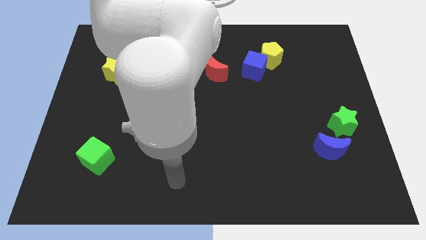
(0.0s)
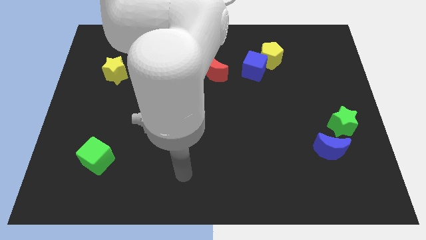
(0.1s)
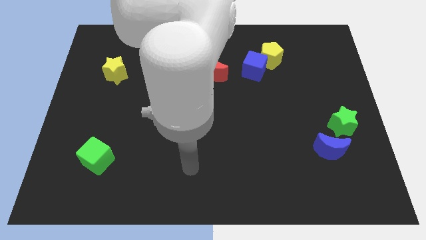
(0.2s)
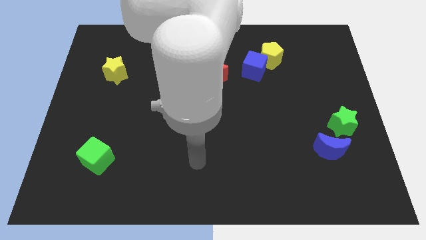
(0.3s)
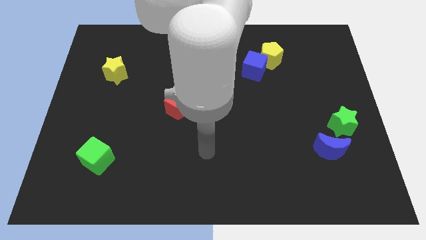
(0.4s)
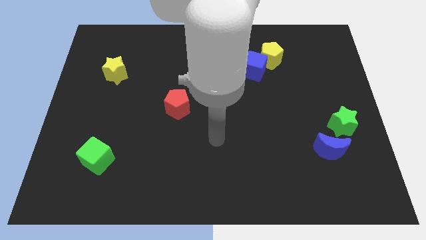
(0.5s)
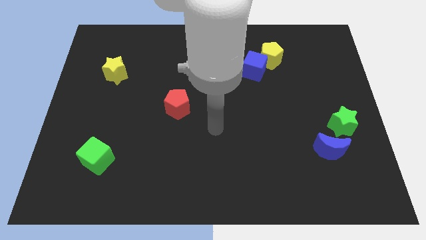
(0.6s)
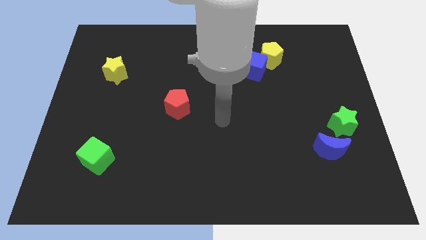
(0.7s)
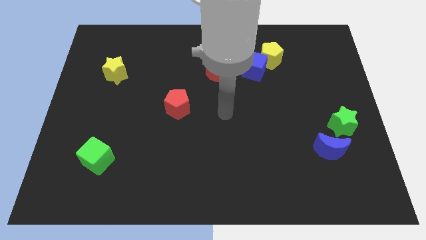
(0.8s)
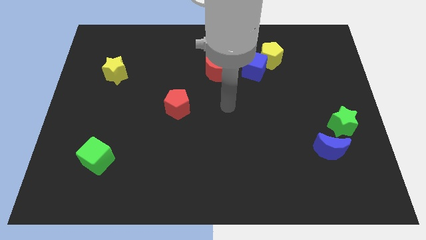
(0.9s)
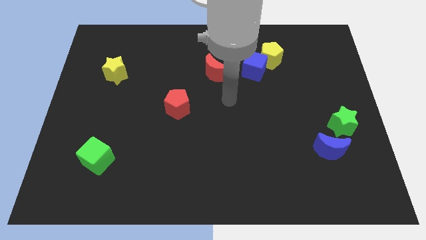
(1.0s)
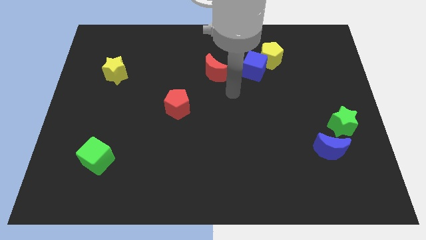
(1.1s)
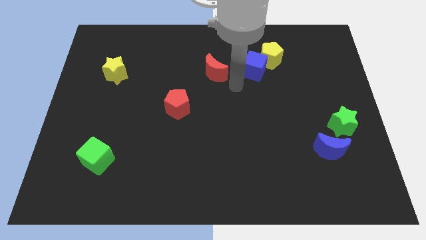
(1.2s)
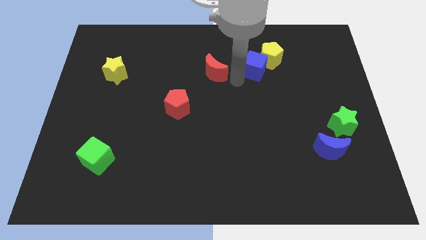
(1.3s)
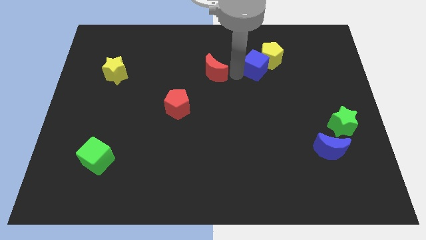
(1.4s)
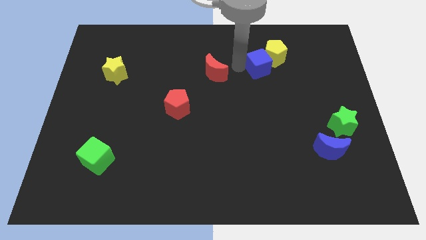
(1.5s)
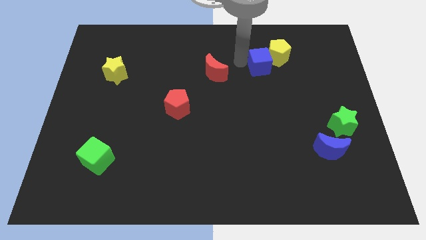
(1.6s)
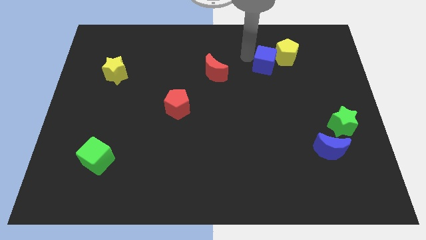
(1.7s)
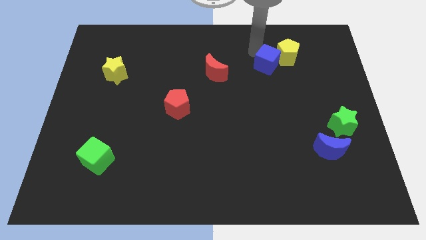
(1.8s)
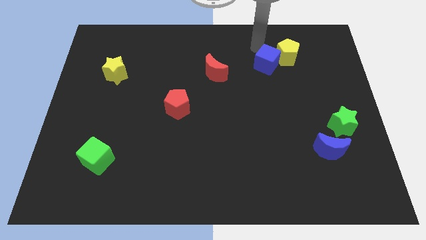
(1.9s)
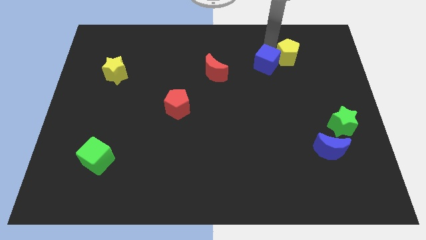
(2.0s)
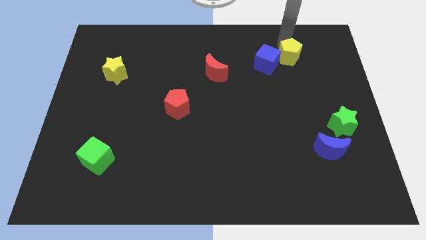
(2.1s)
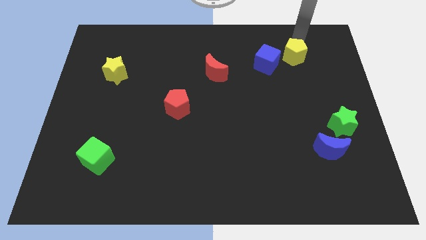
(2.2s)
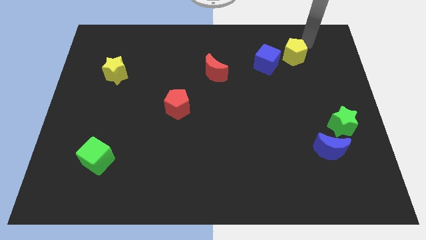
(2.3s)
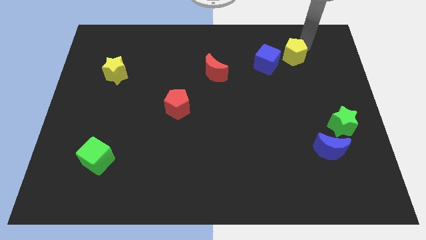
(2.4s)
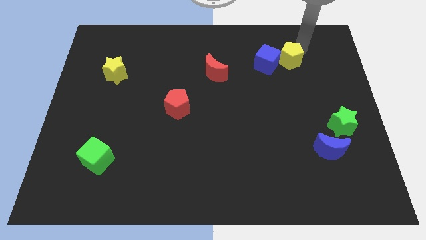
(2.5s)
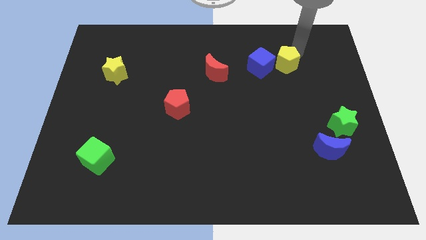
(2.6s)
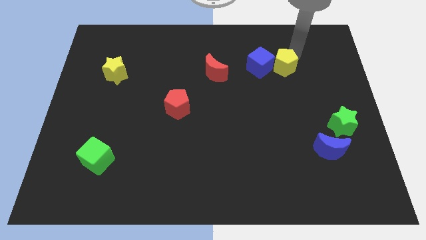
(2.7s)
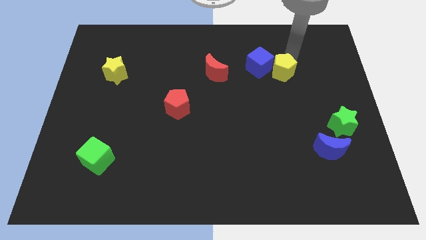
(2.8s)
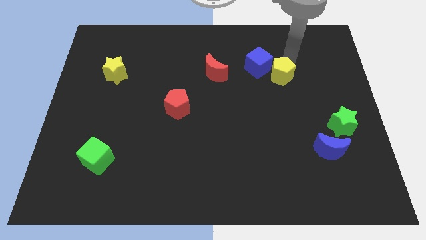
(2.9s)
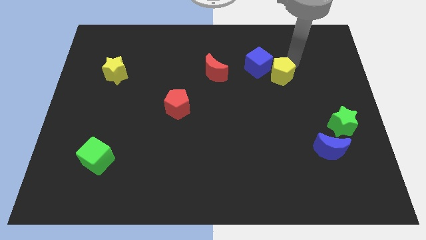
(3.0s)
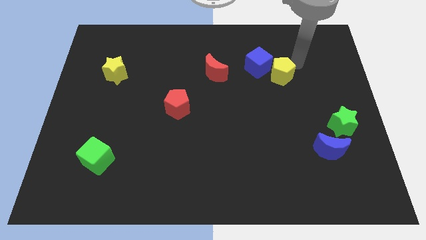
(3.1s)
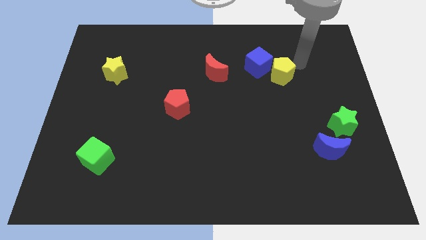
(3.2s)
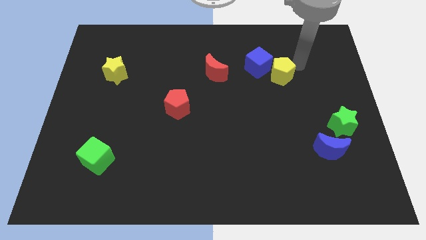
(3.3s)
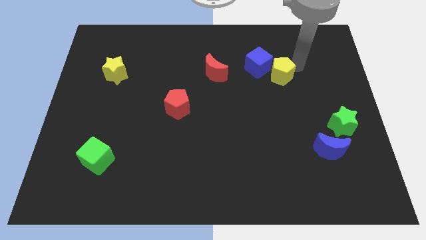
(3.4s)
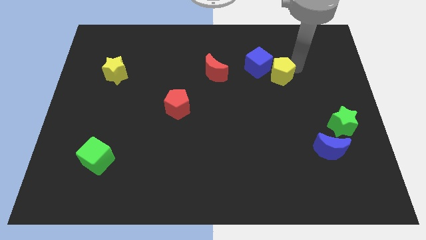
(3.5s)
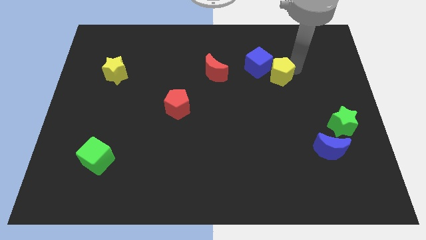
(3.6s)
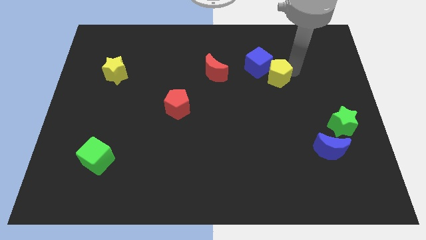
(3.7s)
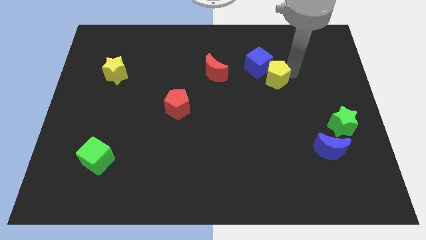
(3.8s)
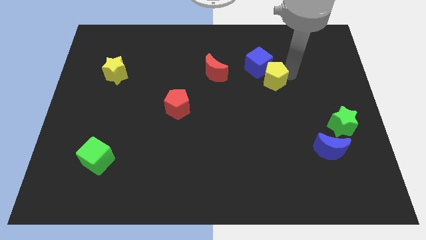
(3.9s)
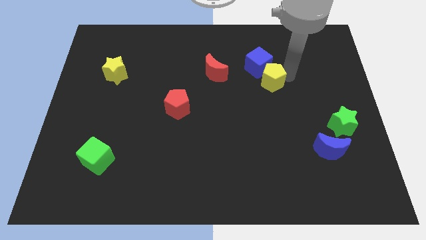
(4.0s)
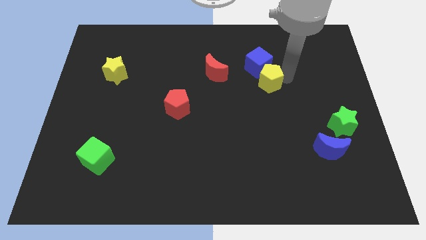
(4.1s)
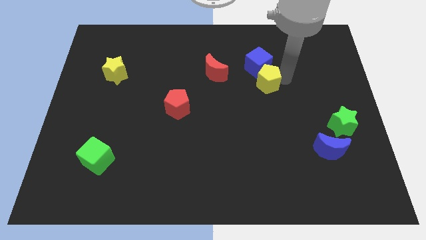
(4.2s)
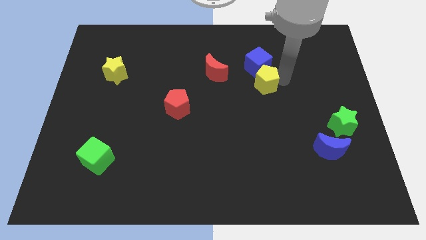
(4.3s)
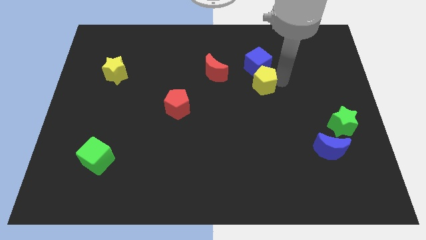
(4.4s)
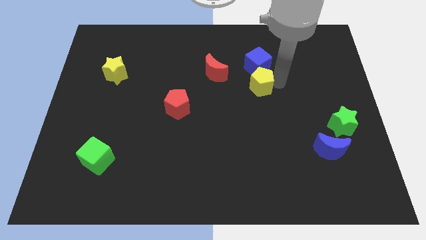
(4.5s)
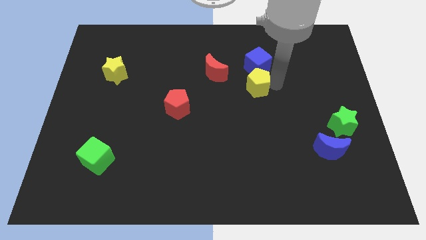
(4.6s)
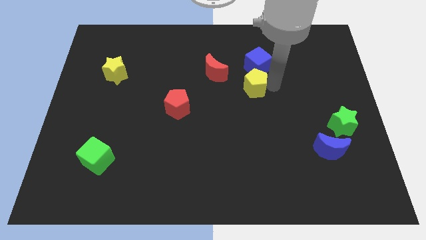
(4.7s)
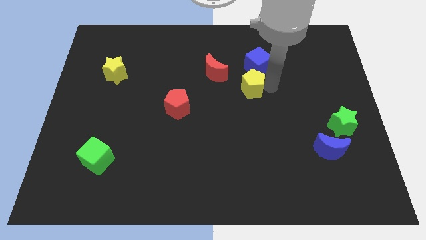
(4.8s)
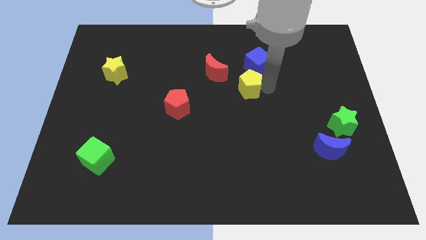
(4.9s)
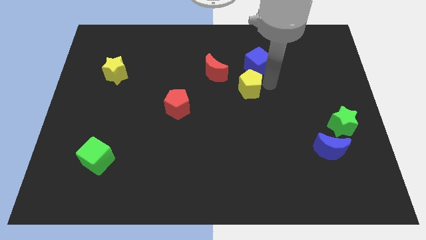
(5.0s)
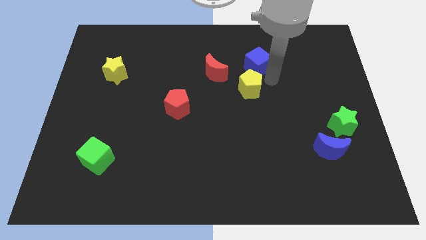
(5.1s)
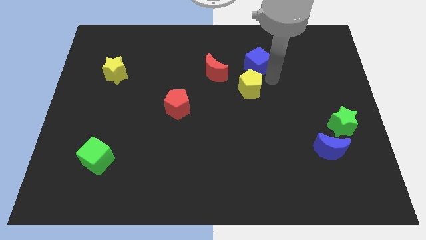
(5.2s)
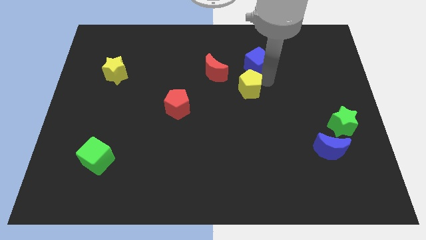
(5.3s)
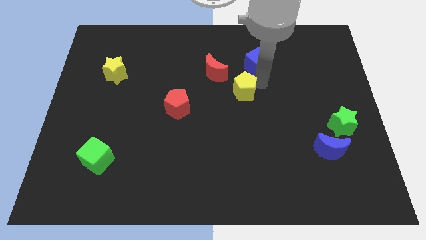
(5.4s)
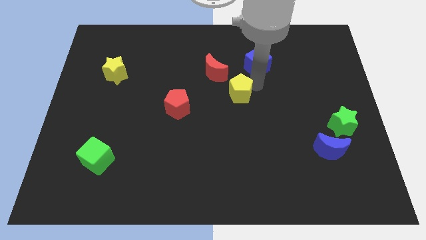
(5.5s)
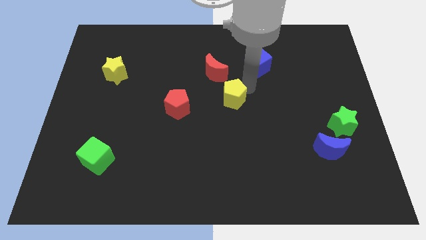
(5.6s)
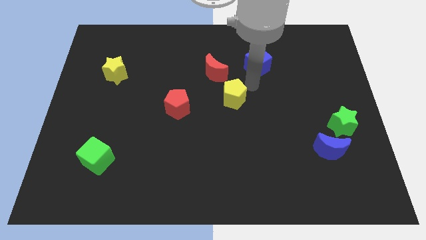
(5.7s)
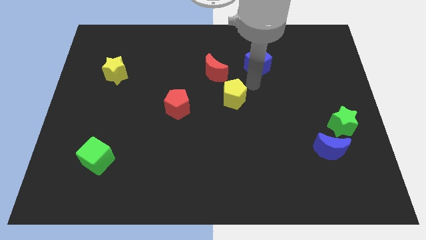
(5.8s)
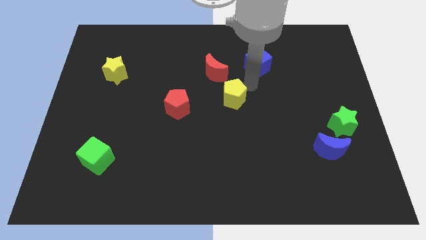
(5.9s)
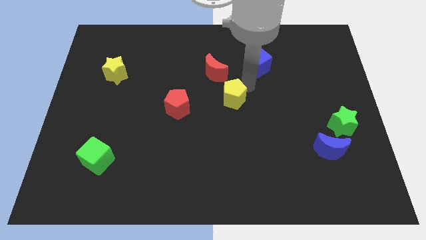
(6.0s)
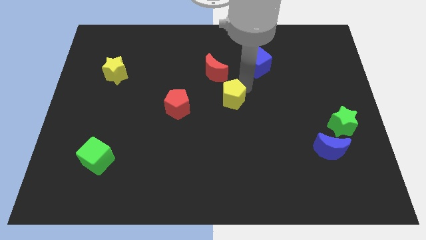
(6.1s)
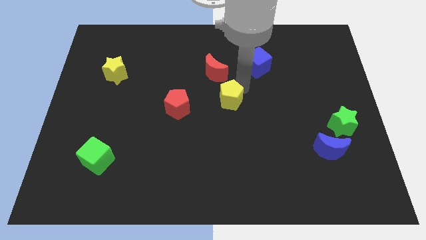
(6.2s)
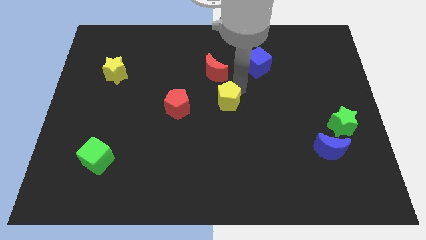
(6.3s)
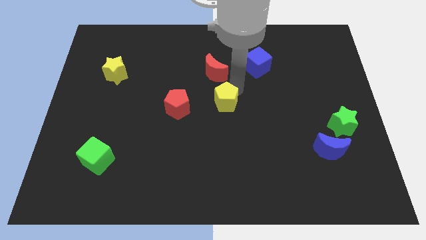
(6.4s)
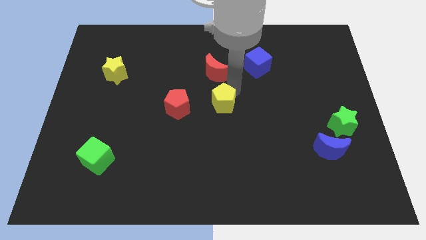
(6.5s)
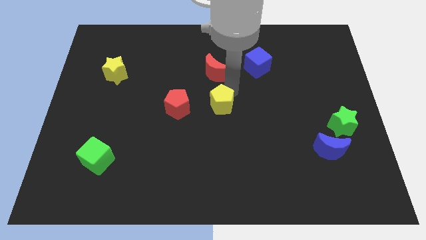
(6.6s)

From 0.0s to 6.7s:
move the yellow pentagon diagonally downwards and to the left

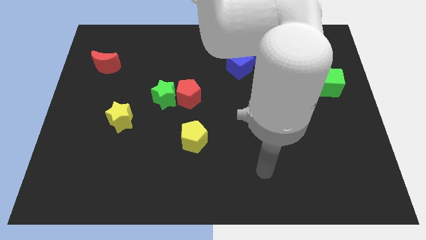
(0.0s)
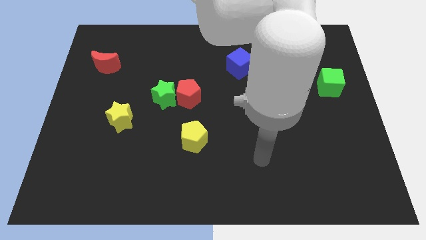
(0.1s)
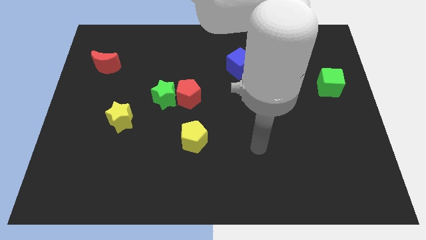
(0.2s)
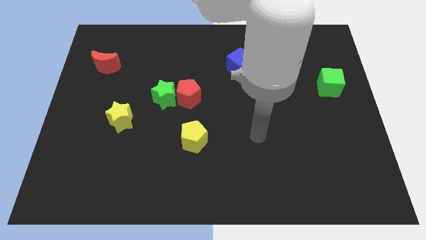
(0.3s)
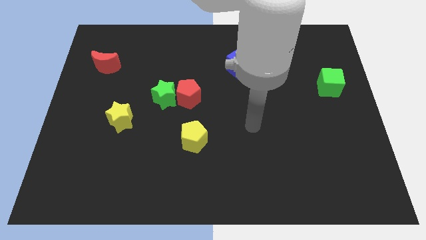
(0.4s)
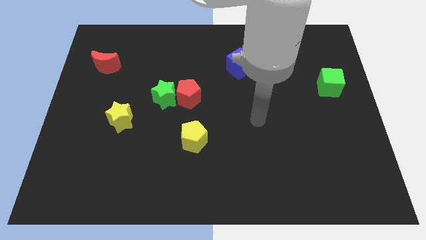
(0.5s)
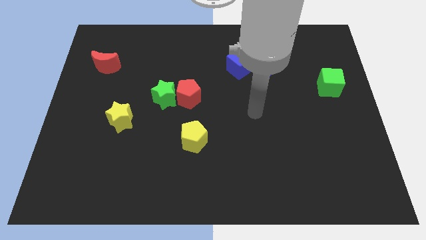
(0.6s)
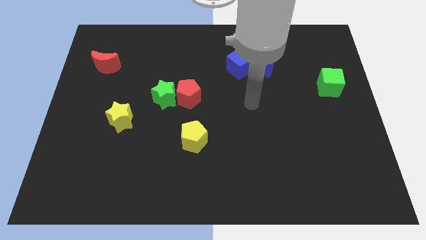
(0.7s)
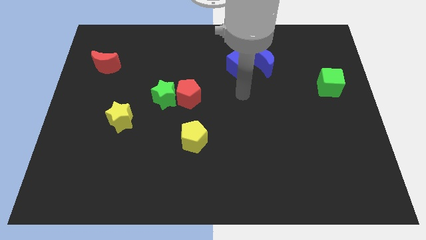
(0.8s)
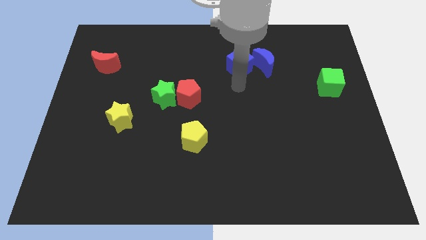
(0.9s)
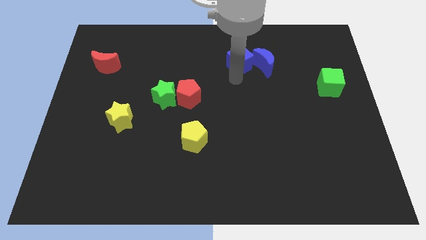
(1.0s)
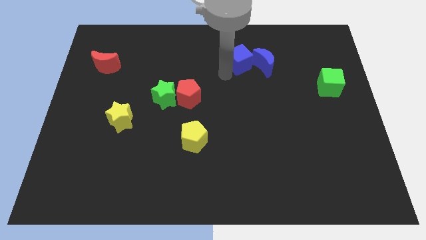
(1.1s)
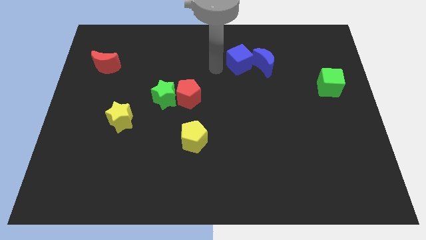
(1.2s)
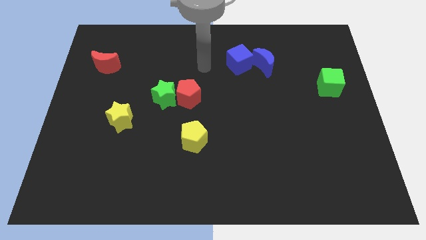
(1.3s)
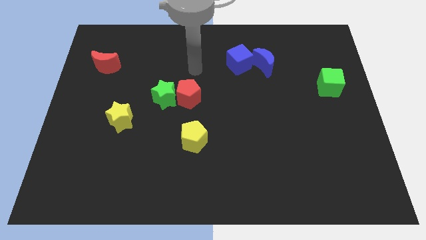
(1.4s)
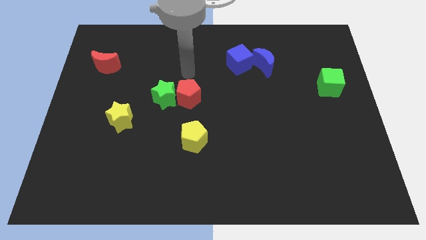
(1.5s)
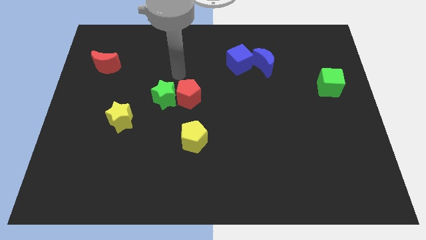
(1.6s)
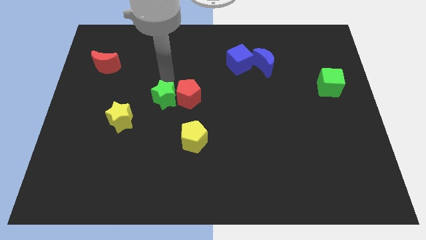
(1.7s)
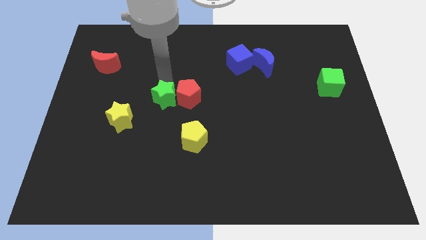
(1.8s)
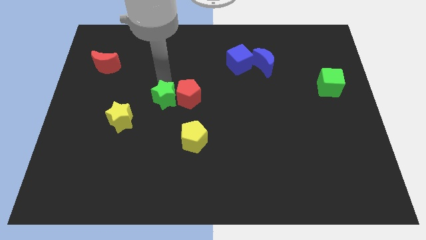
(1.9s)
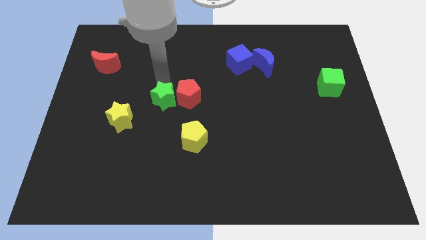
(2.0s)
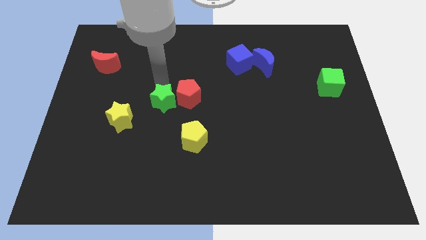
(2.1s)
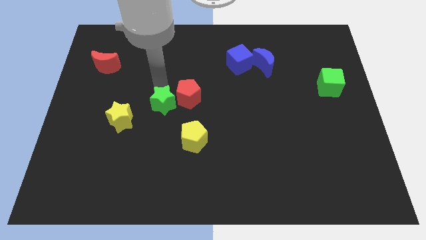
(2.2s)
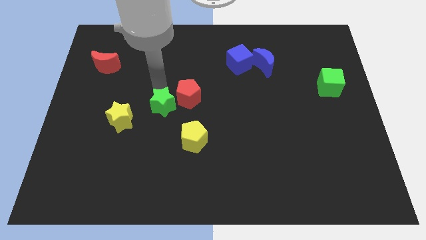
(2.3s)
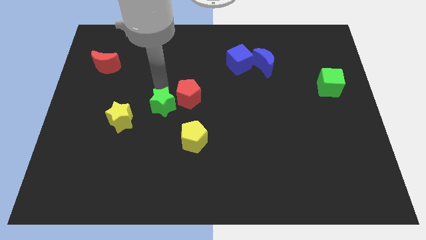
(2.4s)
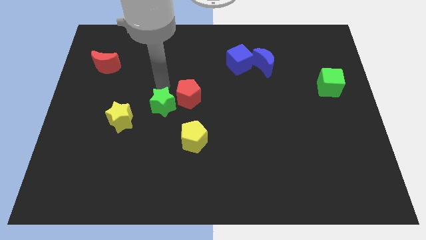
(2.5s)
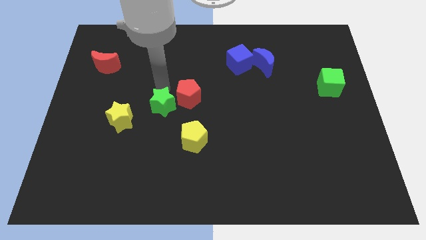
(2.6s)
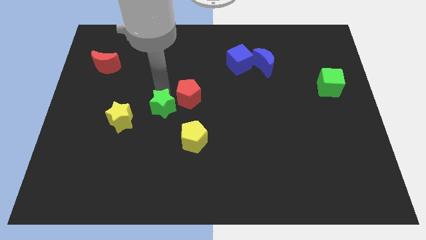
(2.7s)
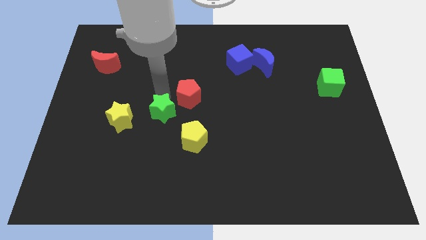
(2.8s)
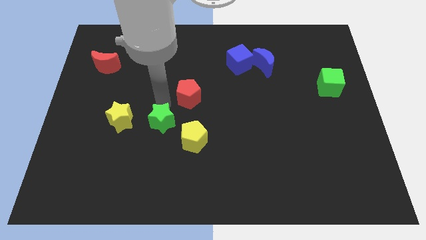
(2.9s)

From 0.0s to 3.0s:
move the green star down slightly
